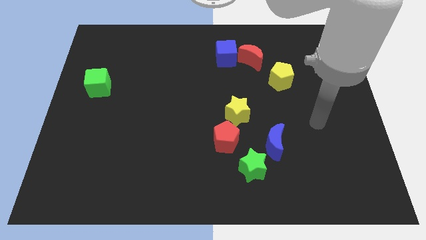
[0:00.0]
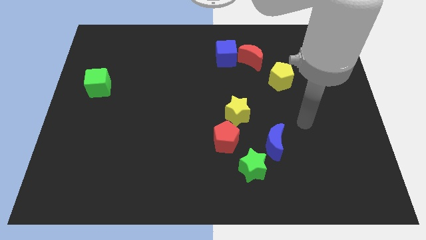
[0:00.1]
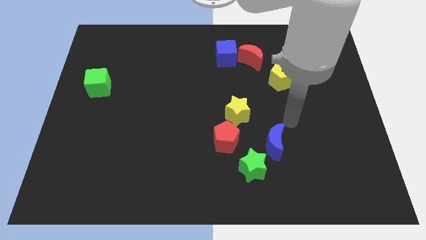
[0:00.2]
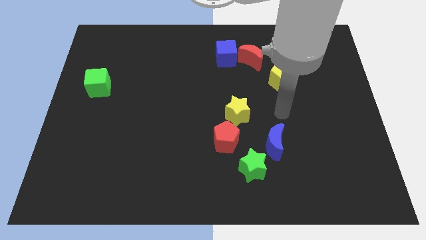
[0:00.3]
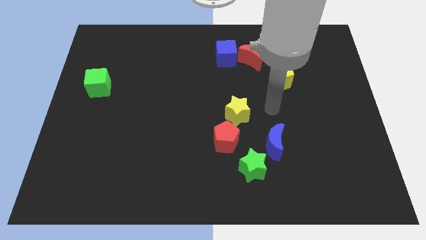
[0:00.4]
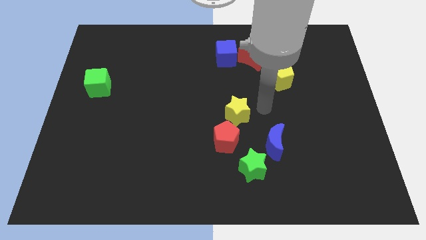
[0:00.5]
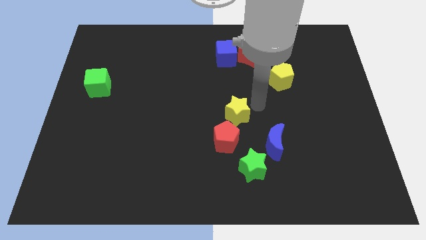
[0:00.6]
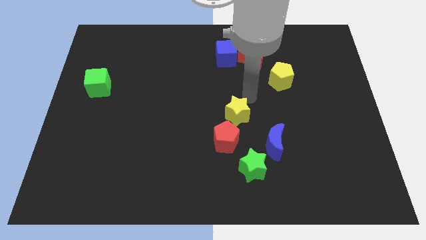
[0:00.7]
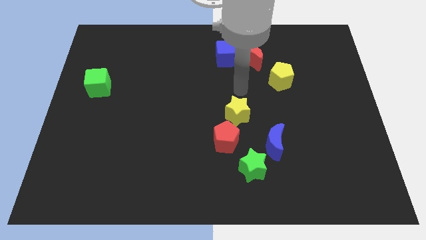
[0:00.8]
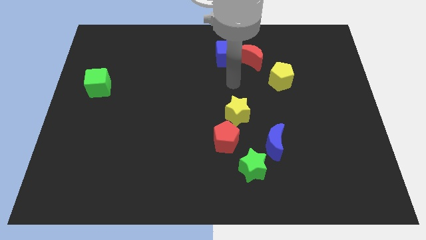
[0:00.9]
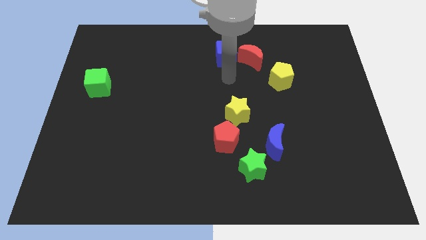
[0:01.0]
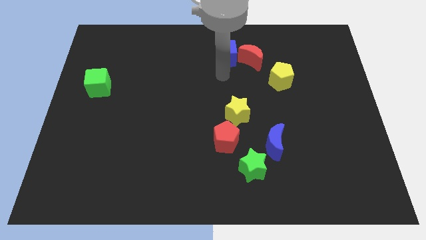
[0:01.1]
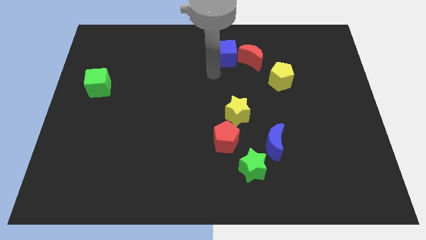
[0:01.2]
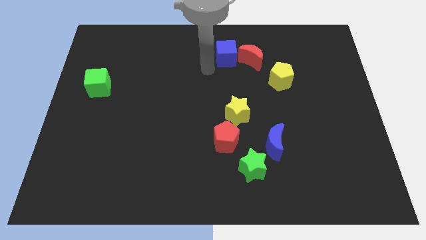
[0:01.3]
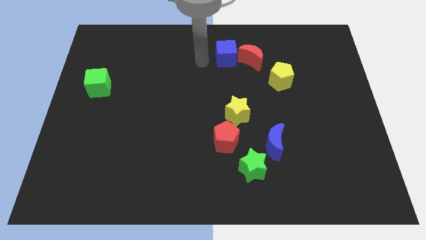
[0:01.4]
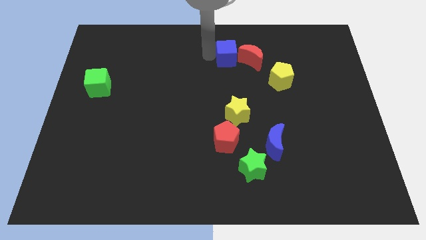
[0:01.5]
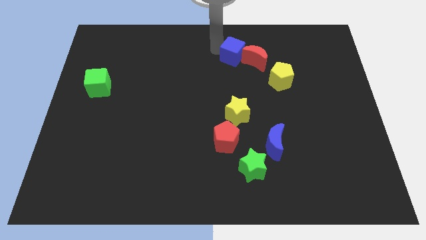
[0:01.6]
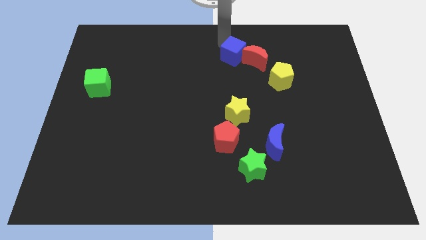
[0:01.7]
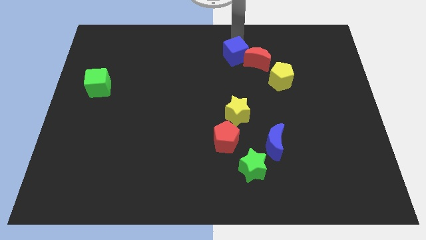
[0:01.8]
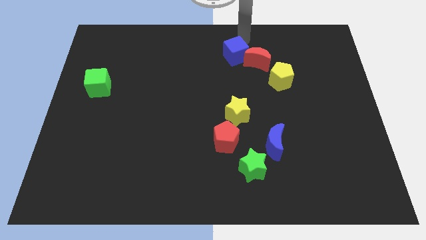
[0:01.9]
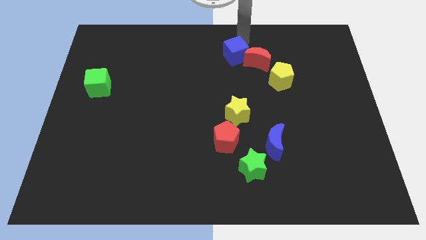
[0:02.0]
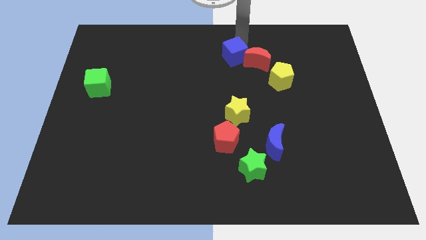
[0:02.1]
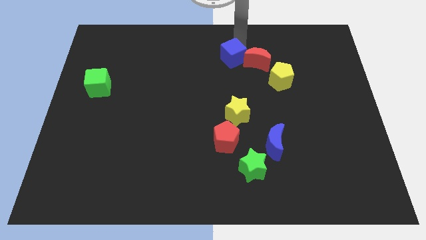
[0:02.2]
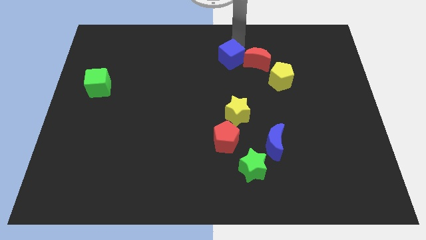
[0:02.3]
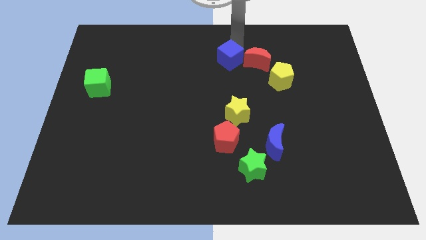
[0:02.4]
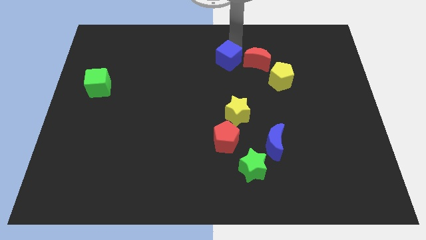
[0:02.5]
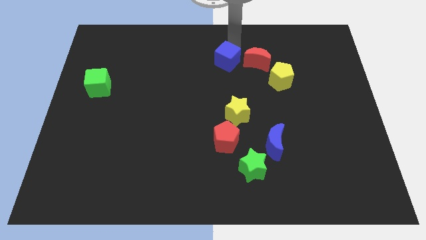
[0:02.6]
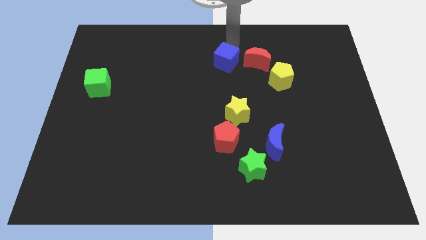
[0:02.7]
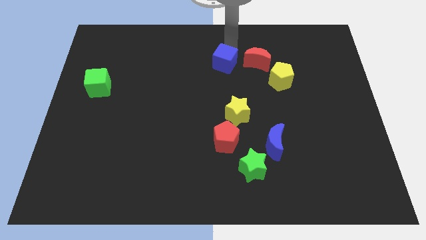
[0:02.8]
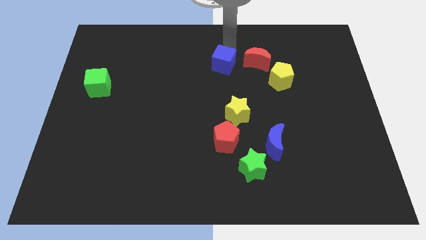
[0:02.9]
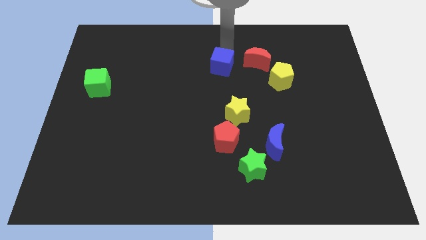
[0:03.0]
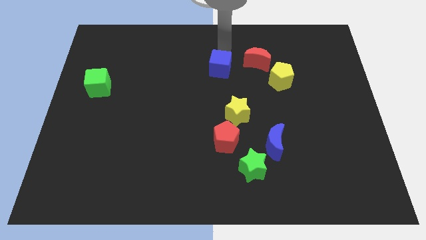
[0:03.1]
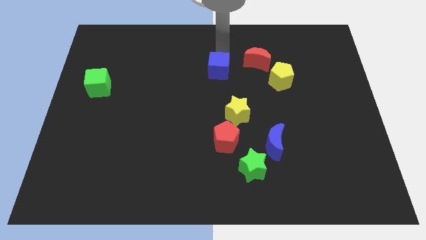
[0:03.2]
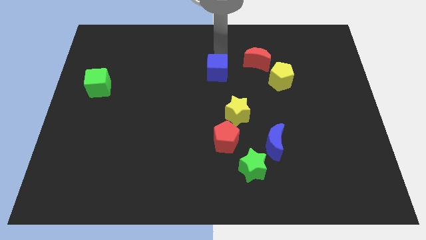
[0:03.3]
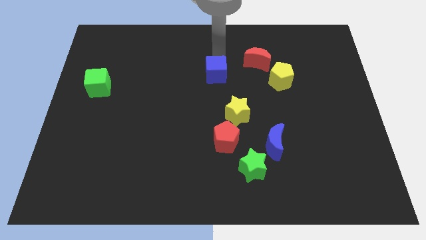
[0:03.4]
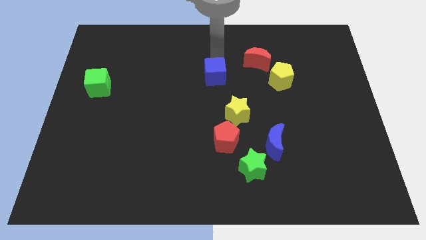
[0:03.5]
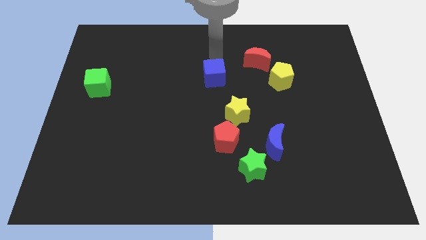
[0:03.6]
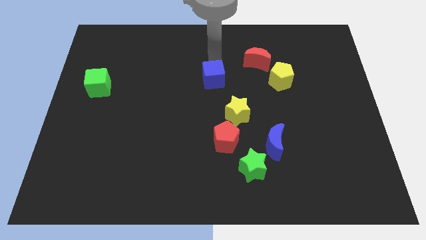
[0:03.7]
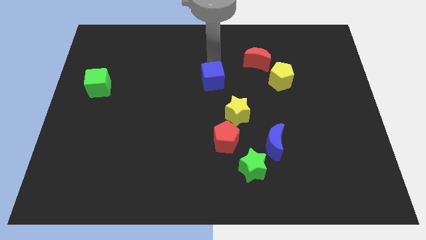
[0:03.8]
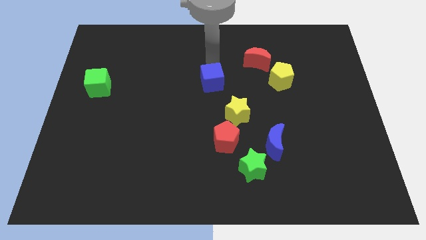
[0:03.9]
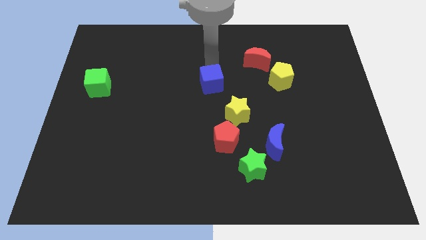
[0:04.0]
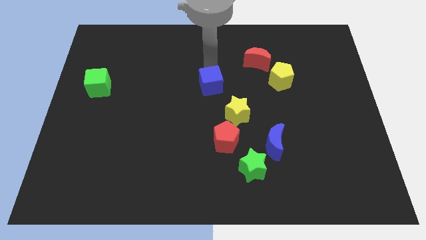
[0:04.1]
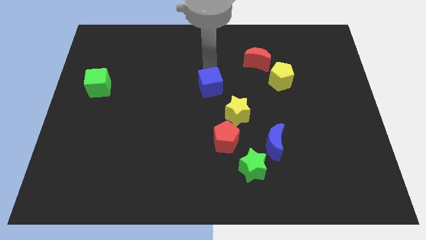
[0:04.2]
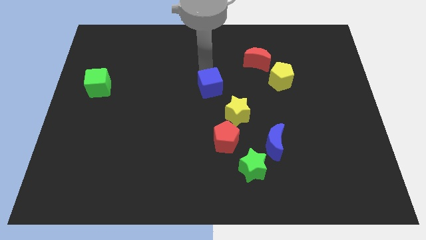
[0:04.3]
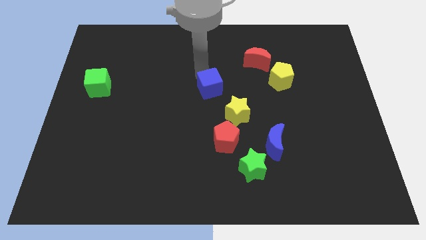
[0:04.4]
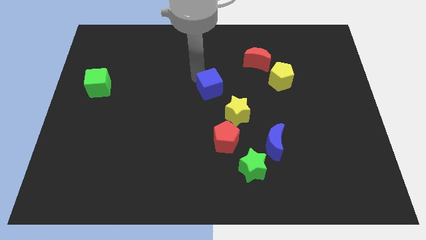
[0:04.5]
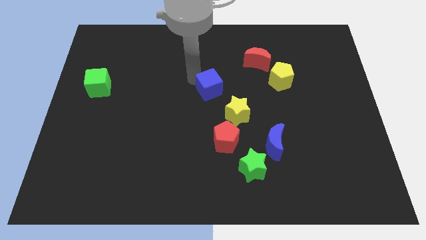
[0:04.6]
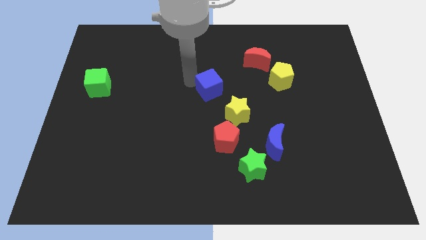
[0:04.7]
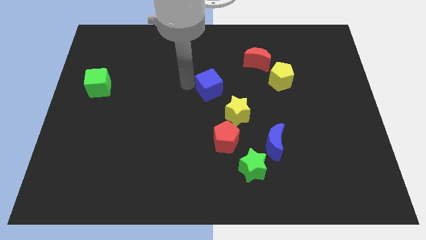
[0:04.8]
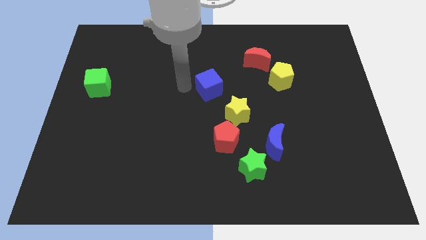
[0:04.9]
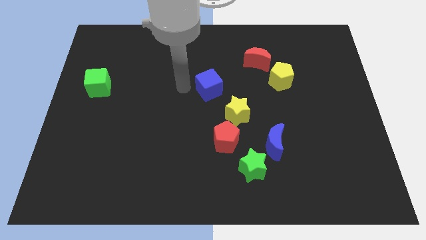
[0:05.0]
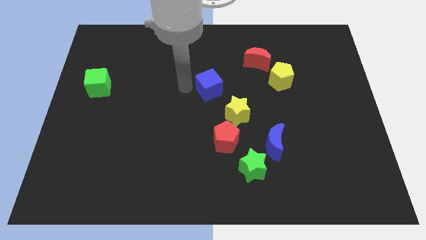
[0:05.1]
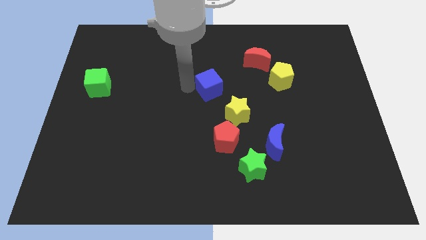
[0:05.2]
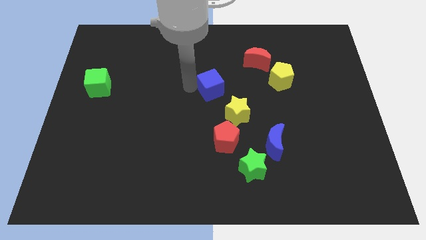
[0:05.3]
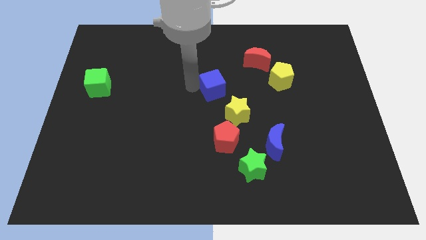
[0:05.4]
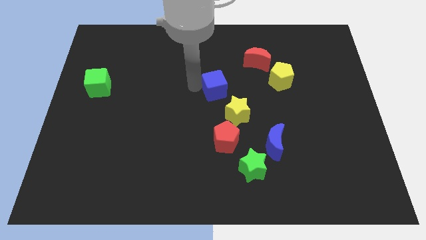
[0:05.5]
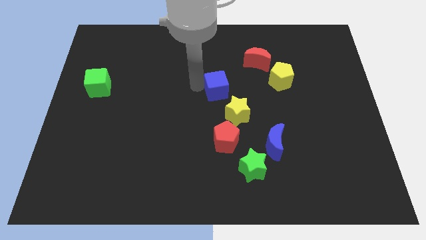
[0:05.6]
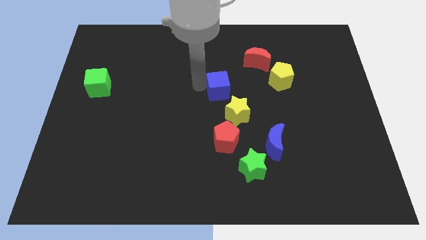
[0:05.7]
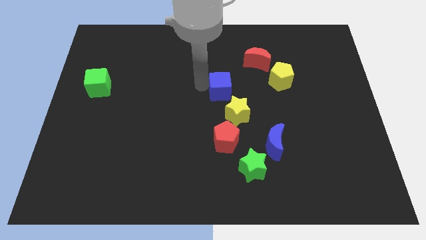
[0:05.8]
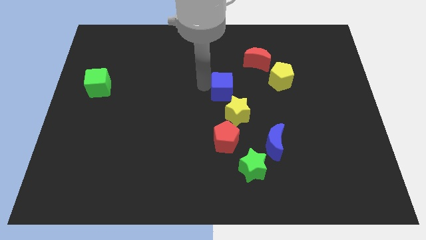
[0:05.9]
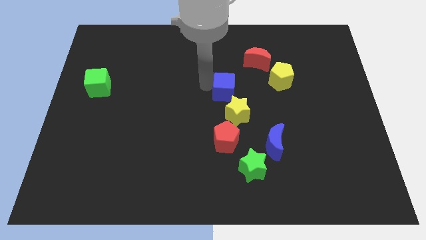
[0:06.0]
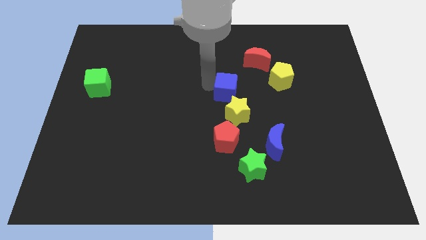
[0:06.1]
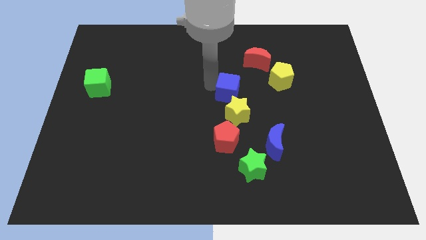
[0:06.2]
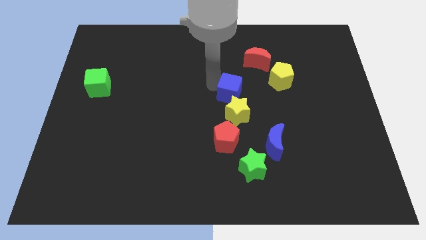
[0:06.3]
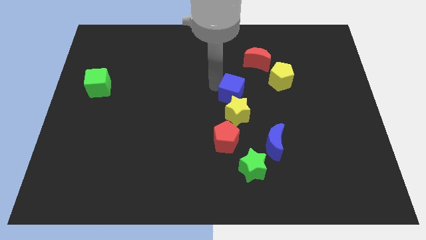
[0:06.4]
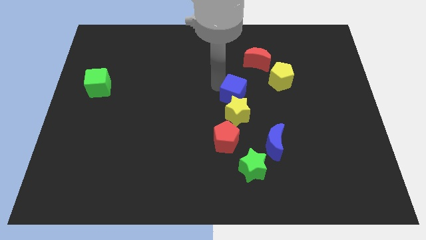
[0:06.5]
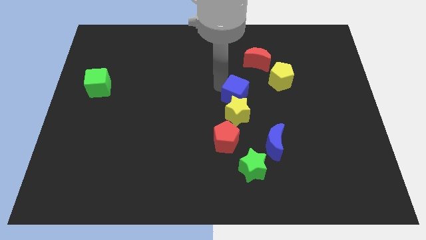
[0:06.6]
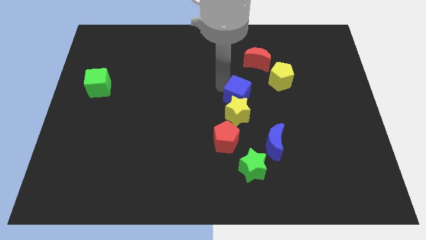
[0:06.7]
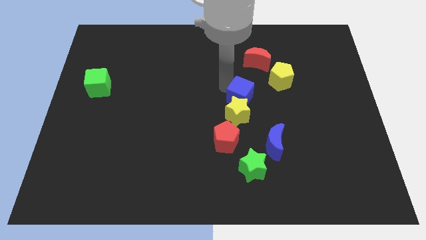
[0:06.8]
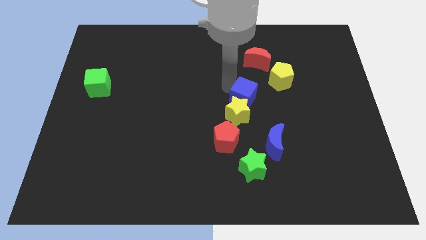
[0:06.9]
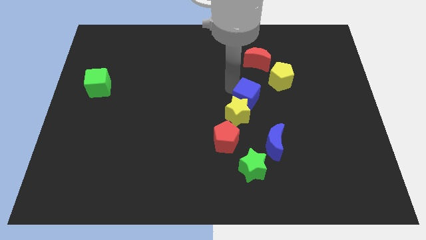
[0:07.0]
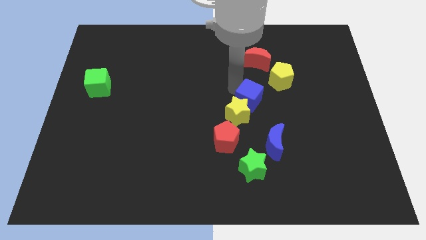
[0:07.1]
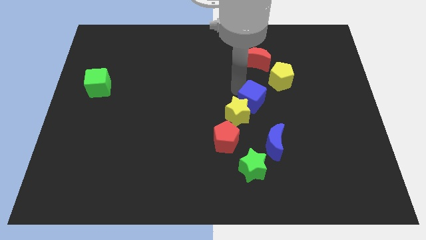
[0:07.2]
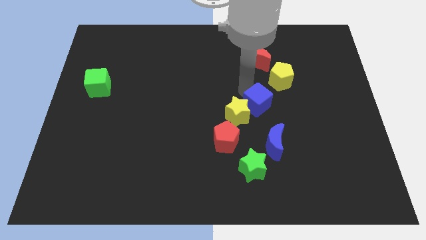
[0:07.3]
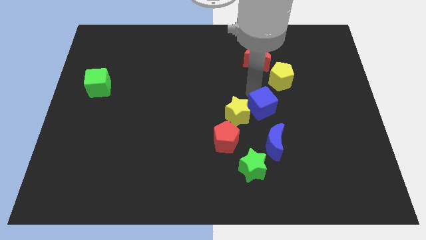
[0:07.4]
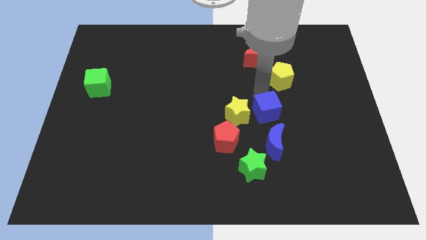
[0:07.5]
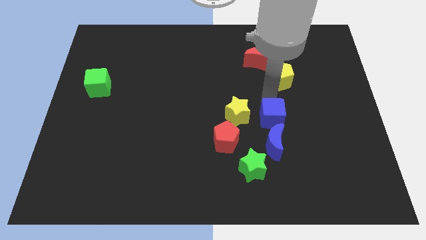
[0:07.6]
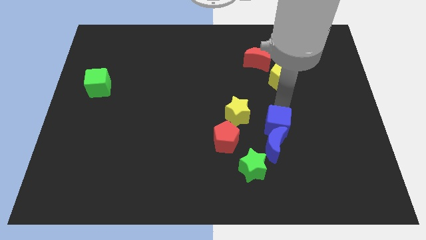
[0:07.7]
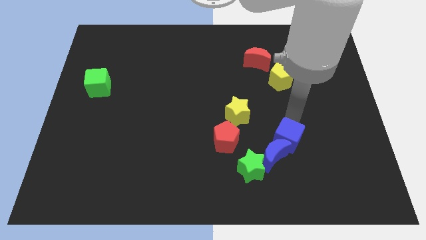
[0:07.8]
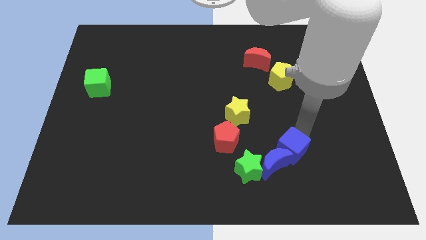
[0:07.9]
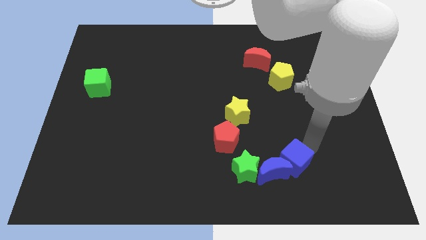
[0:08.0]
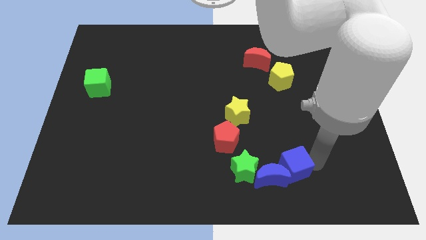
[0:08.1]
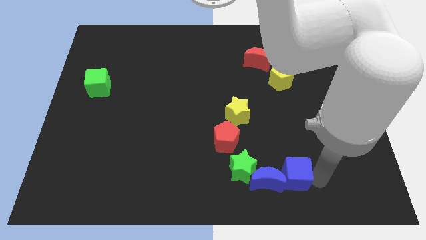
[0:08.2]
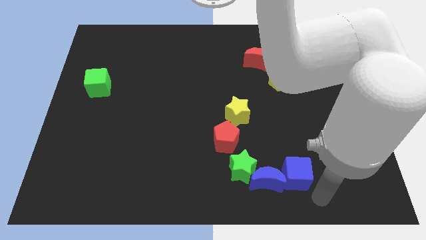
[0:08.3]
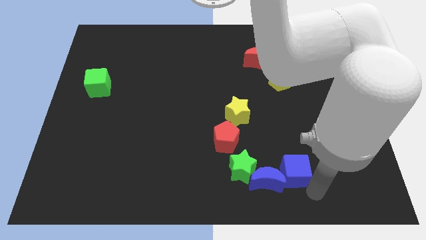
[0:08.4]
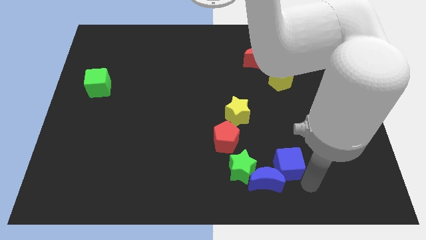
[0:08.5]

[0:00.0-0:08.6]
push the blue cube down
